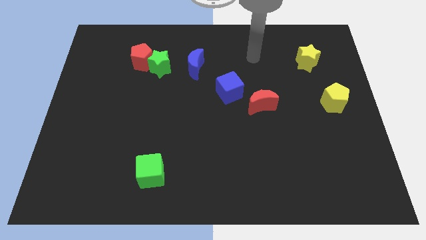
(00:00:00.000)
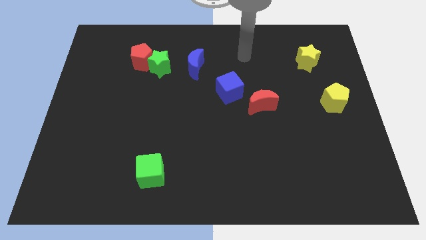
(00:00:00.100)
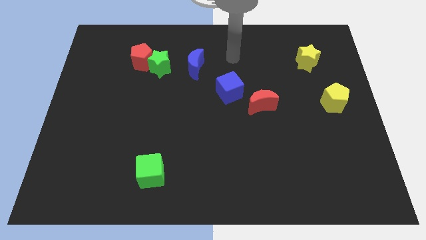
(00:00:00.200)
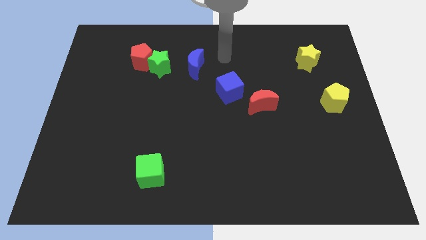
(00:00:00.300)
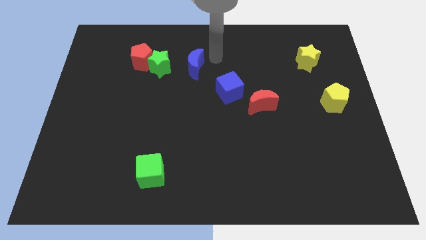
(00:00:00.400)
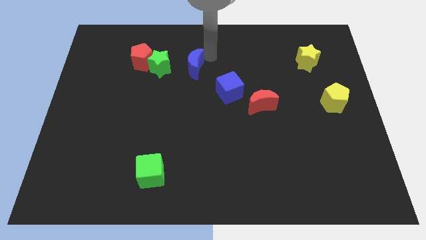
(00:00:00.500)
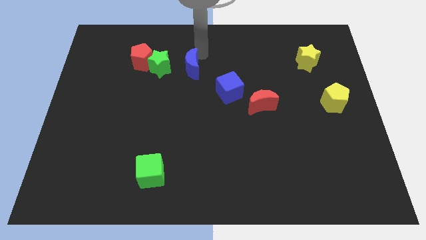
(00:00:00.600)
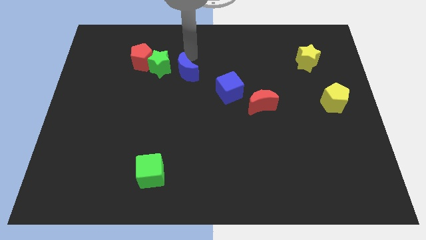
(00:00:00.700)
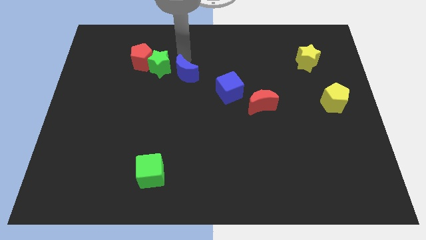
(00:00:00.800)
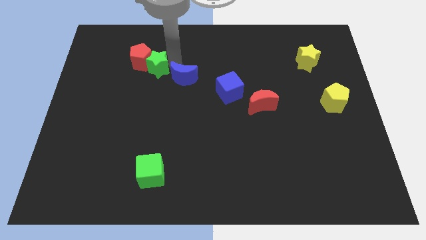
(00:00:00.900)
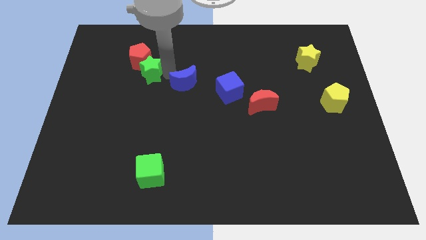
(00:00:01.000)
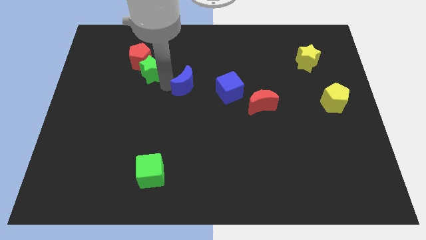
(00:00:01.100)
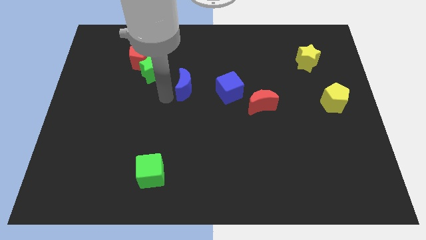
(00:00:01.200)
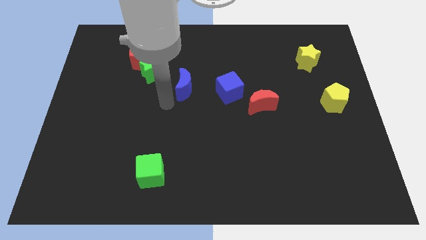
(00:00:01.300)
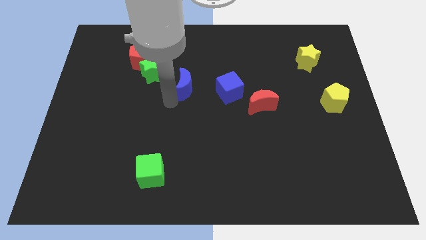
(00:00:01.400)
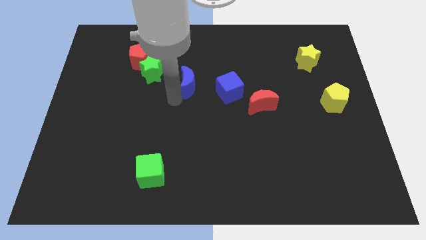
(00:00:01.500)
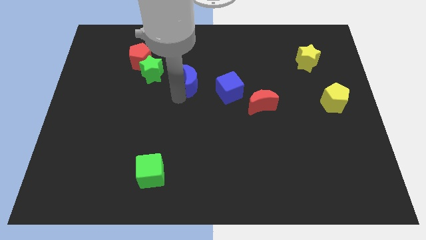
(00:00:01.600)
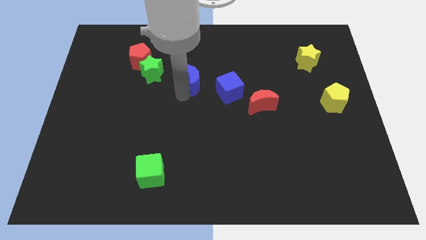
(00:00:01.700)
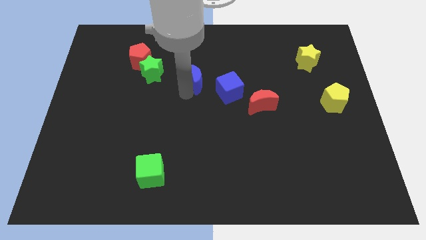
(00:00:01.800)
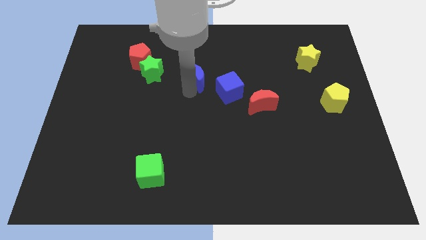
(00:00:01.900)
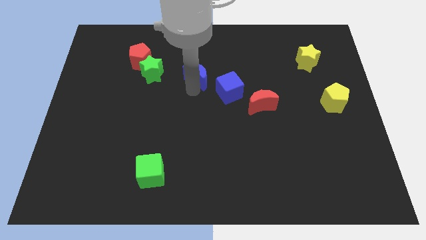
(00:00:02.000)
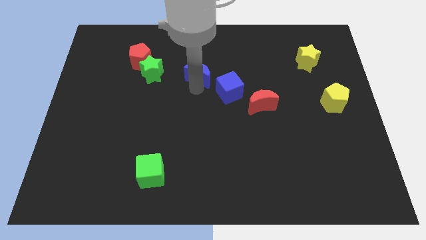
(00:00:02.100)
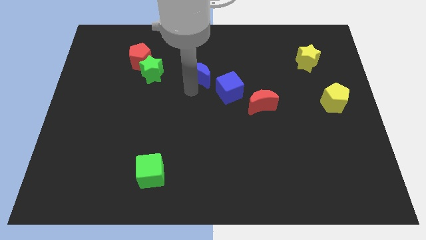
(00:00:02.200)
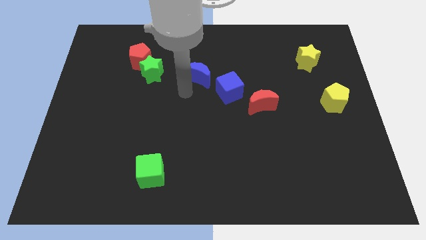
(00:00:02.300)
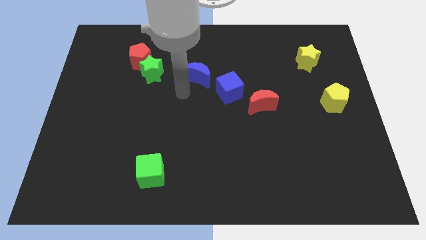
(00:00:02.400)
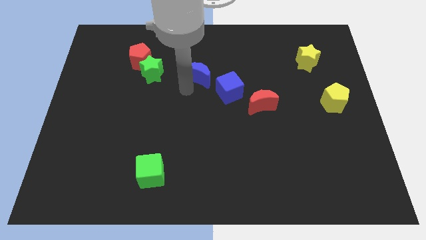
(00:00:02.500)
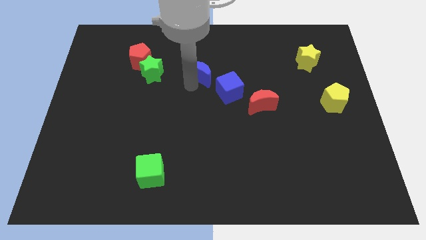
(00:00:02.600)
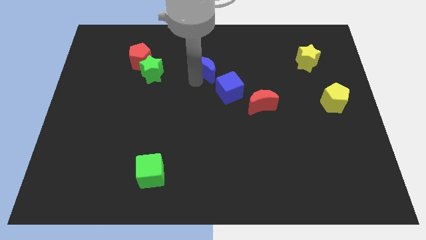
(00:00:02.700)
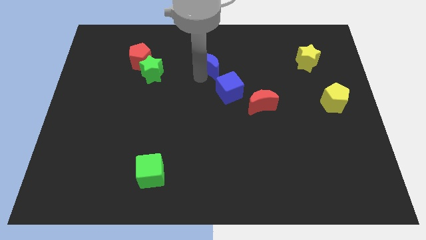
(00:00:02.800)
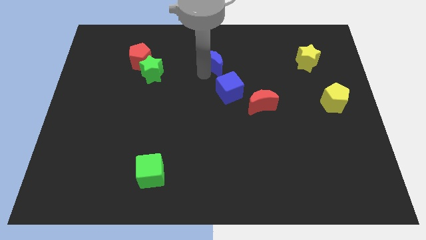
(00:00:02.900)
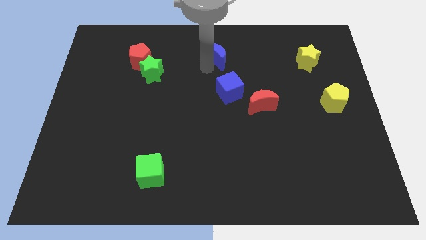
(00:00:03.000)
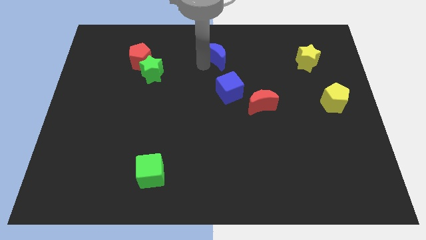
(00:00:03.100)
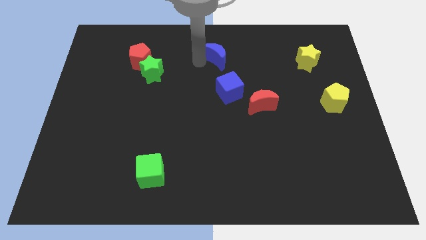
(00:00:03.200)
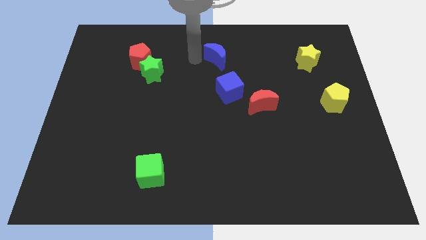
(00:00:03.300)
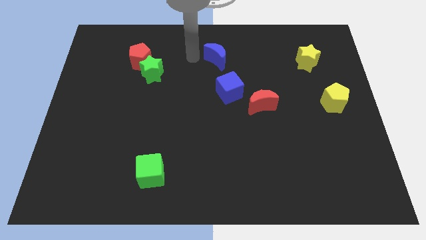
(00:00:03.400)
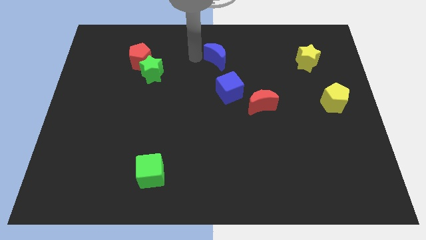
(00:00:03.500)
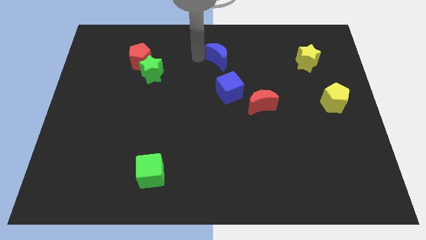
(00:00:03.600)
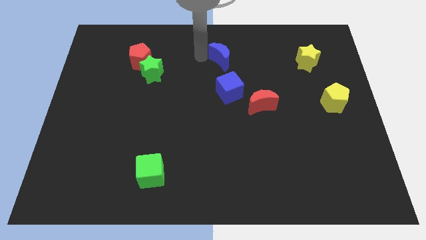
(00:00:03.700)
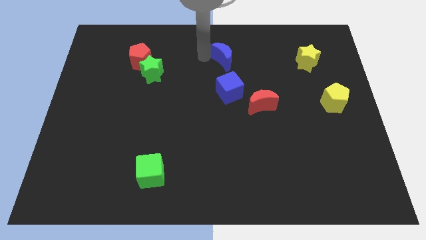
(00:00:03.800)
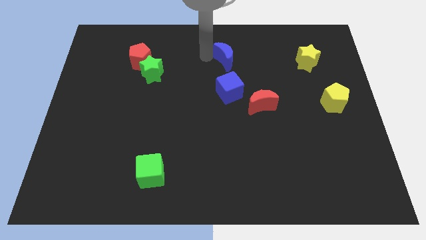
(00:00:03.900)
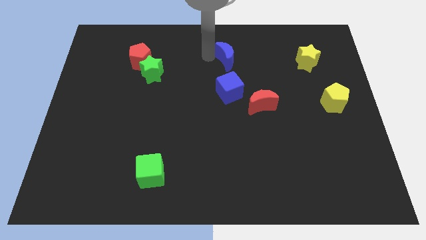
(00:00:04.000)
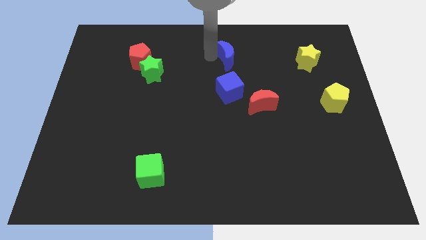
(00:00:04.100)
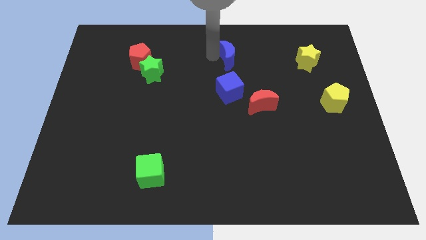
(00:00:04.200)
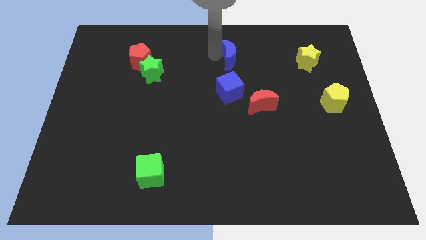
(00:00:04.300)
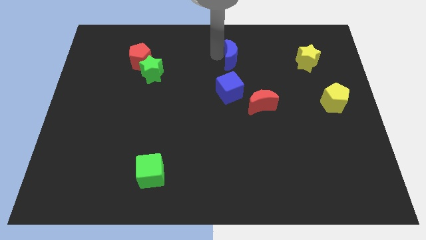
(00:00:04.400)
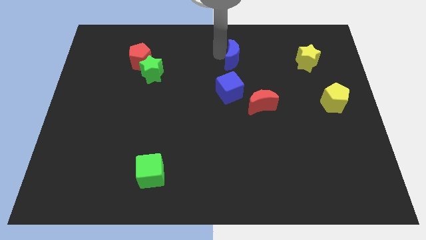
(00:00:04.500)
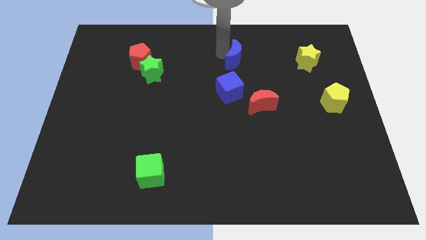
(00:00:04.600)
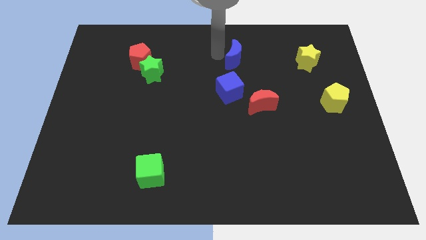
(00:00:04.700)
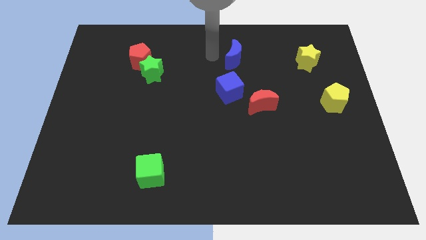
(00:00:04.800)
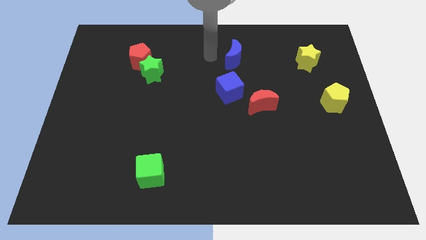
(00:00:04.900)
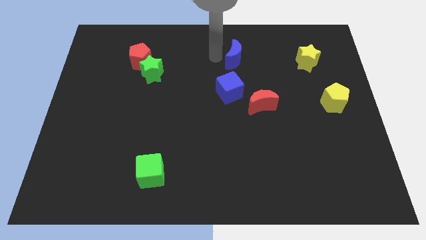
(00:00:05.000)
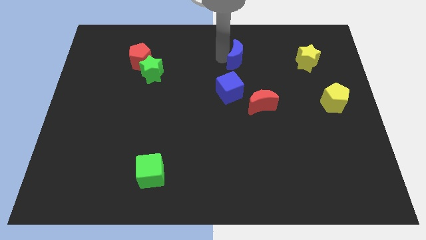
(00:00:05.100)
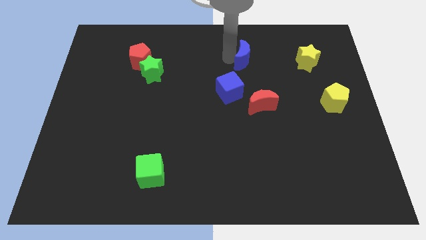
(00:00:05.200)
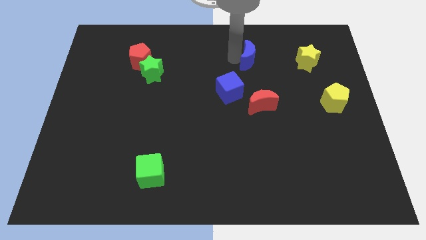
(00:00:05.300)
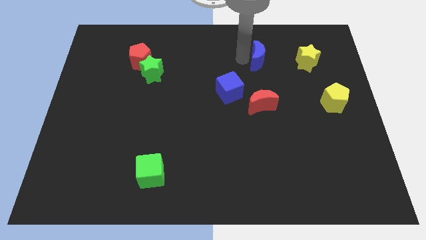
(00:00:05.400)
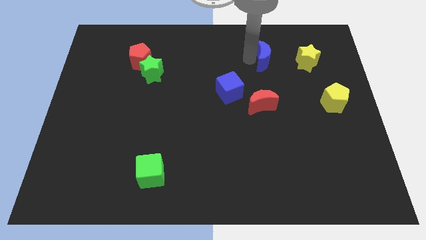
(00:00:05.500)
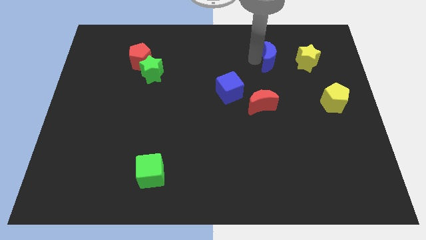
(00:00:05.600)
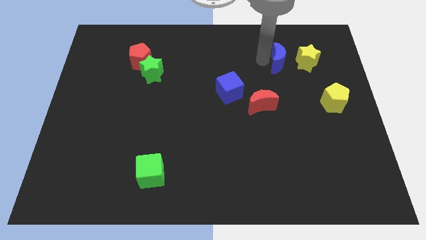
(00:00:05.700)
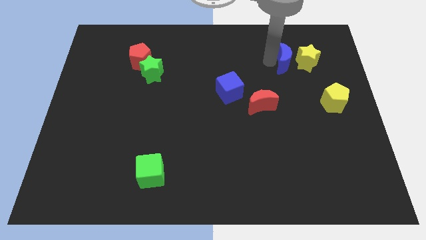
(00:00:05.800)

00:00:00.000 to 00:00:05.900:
push the blue moon to the yellow star

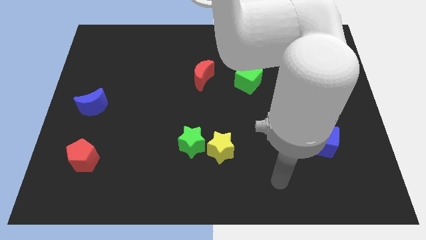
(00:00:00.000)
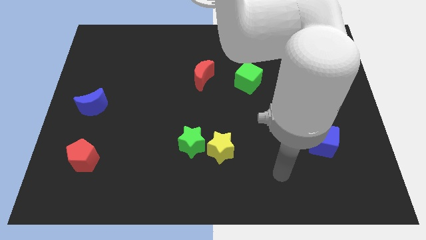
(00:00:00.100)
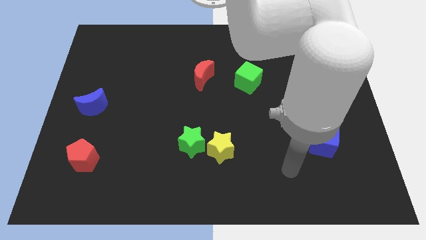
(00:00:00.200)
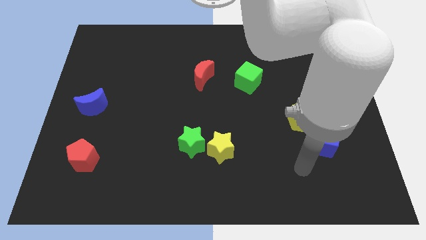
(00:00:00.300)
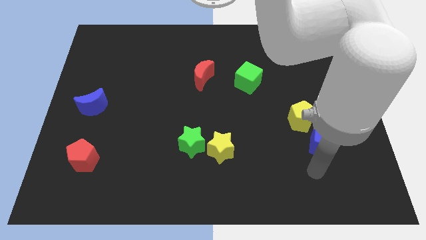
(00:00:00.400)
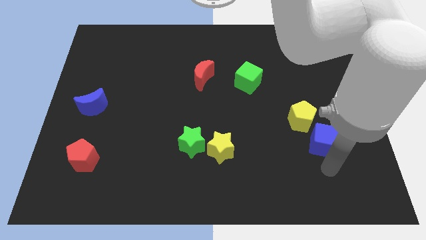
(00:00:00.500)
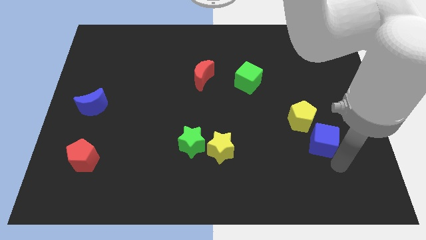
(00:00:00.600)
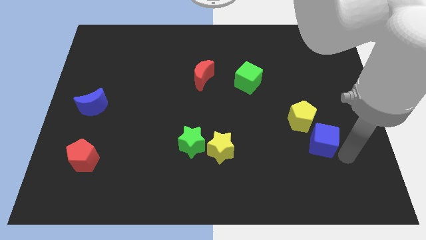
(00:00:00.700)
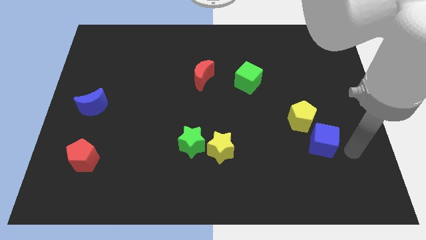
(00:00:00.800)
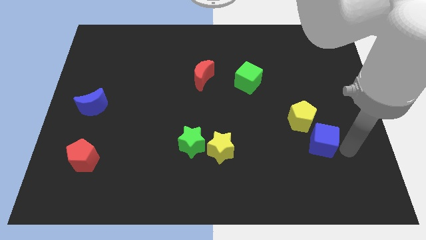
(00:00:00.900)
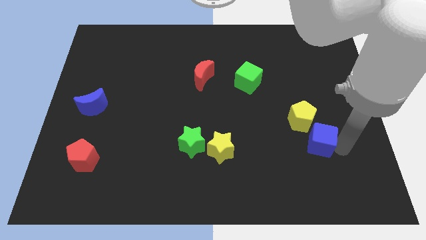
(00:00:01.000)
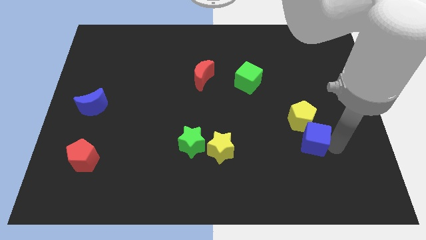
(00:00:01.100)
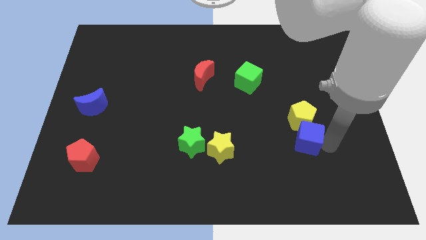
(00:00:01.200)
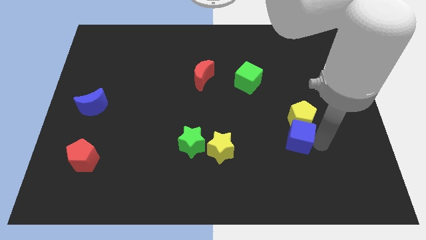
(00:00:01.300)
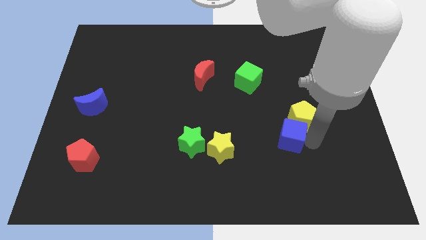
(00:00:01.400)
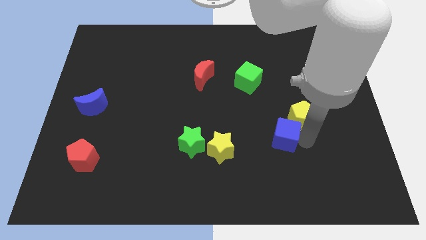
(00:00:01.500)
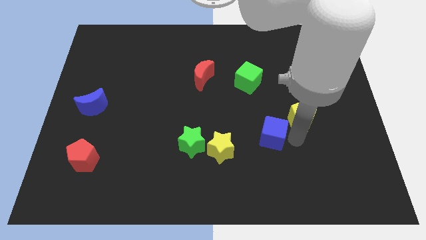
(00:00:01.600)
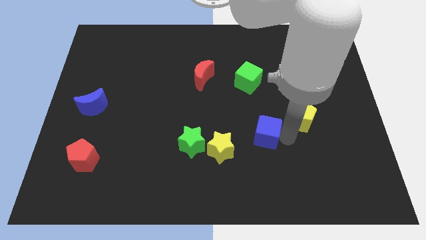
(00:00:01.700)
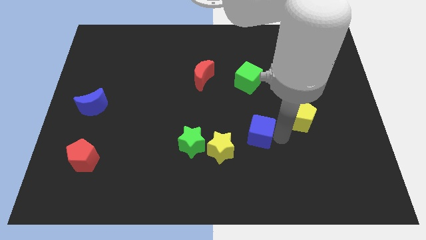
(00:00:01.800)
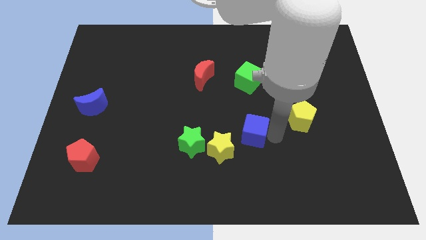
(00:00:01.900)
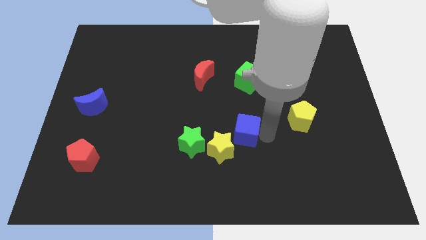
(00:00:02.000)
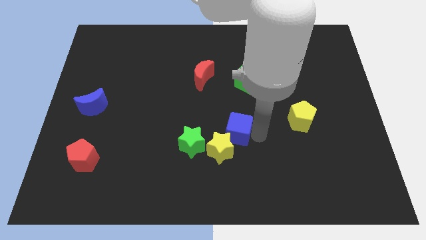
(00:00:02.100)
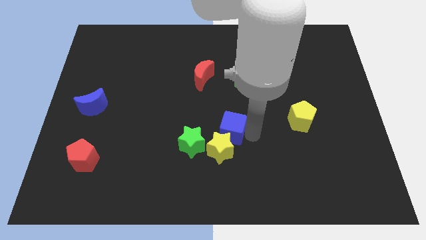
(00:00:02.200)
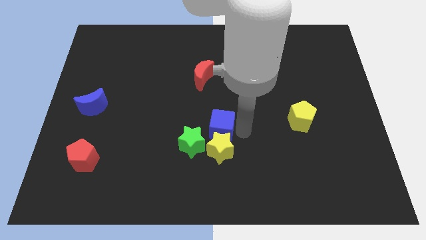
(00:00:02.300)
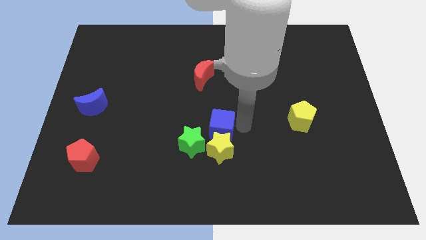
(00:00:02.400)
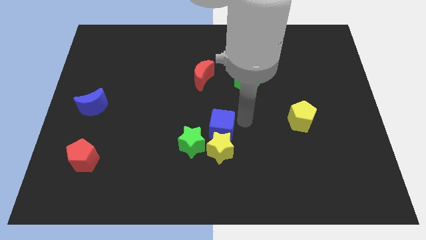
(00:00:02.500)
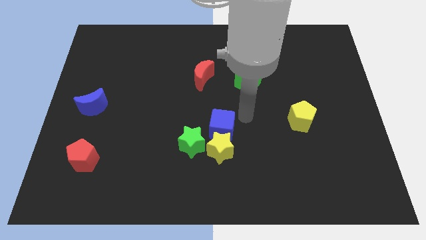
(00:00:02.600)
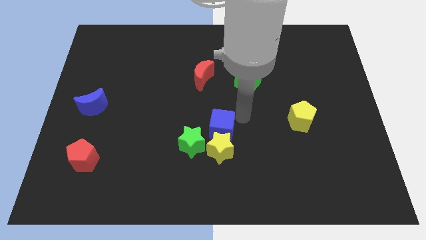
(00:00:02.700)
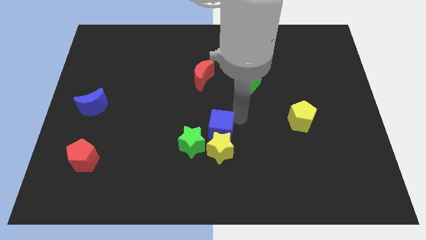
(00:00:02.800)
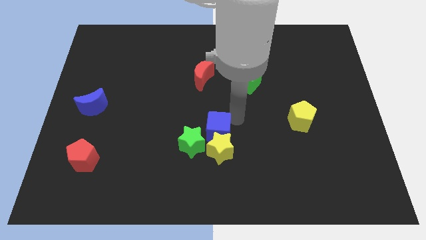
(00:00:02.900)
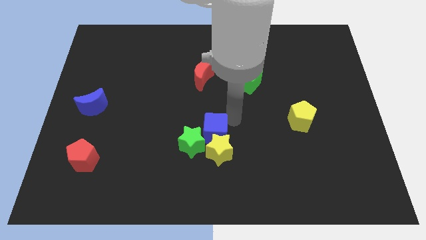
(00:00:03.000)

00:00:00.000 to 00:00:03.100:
put the blue cube next to the green star
